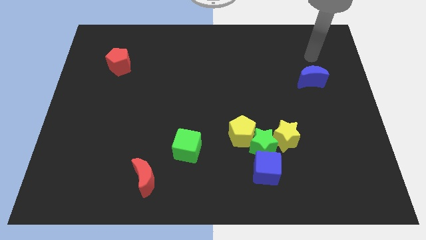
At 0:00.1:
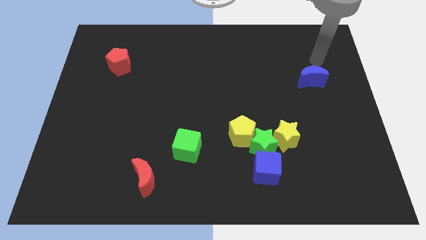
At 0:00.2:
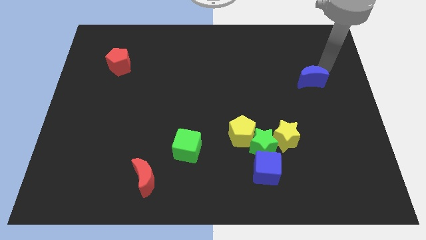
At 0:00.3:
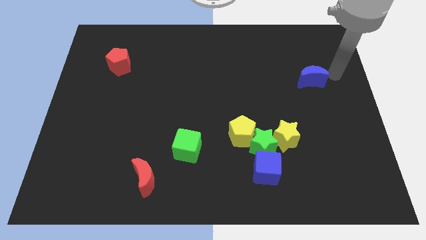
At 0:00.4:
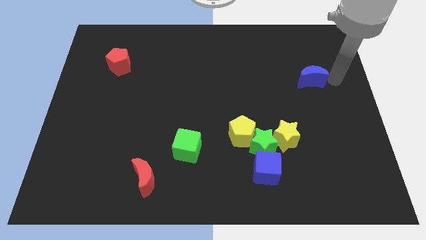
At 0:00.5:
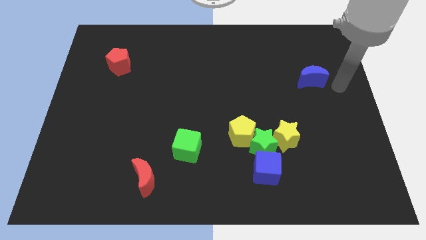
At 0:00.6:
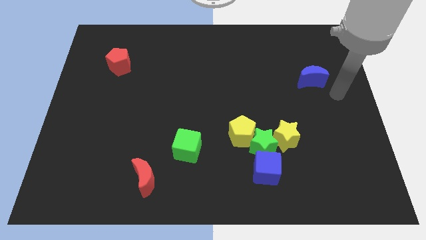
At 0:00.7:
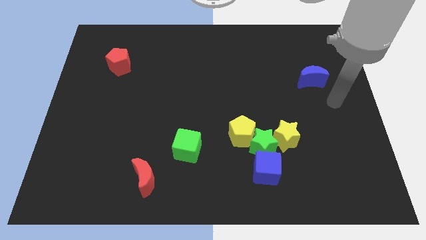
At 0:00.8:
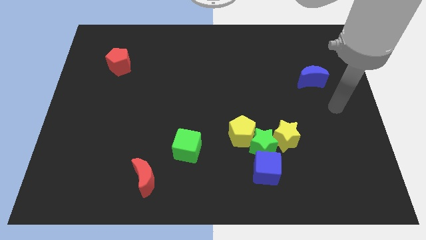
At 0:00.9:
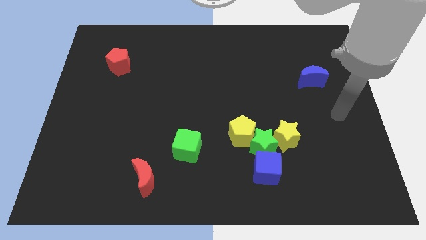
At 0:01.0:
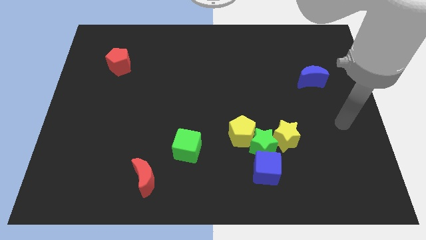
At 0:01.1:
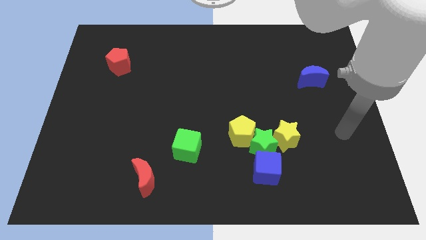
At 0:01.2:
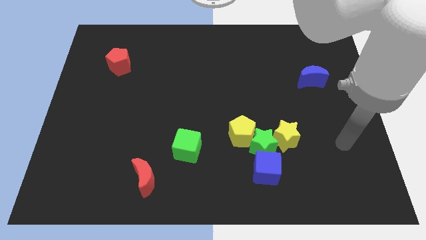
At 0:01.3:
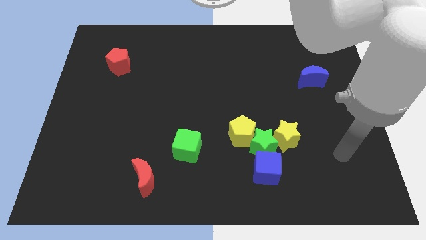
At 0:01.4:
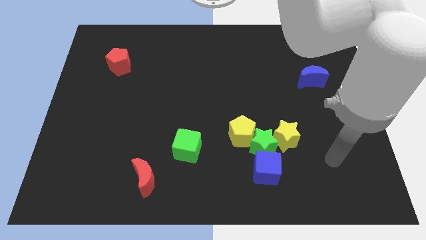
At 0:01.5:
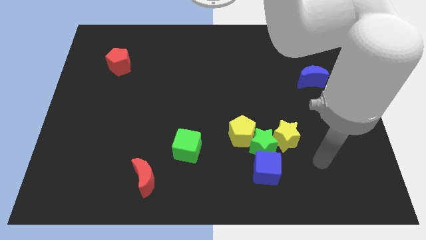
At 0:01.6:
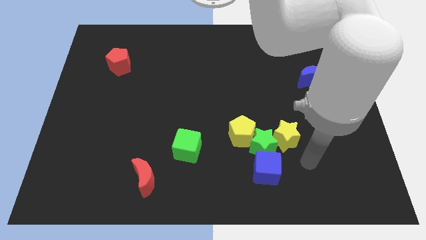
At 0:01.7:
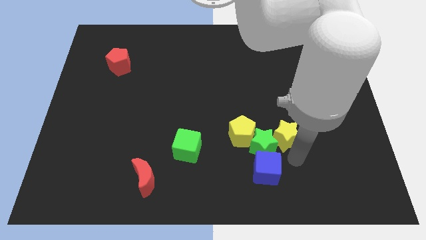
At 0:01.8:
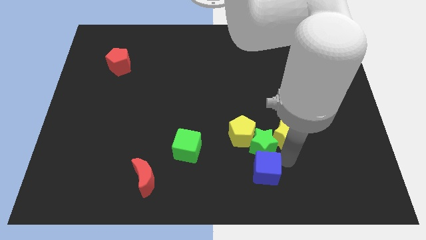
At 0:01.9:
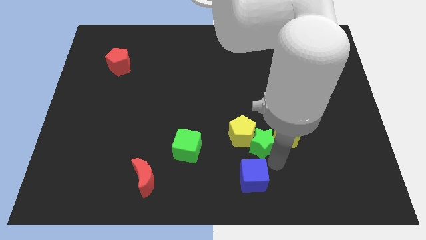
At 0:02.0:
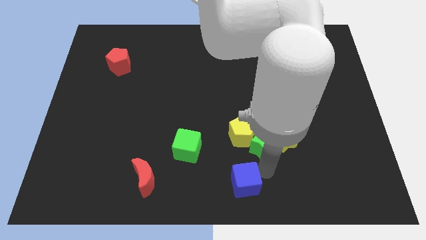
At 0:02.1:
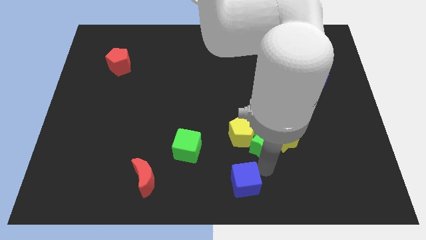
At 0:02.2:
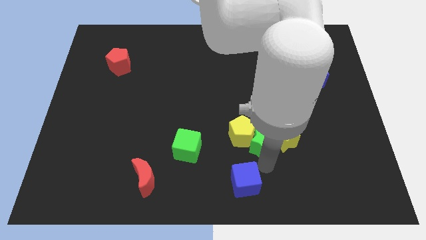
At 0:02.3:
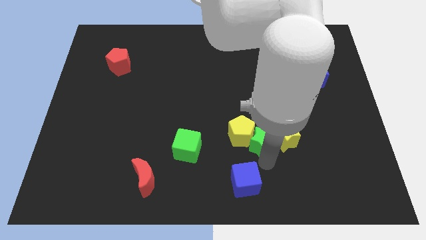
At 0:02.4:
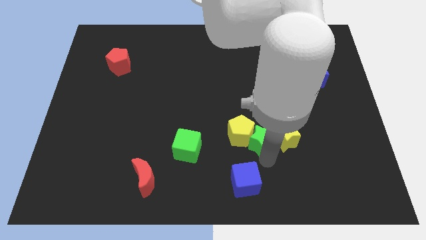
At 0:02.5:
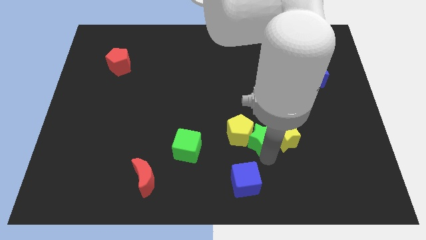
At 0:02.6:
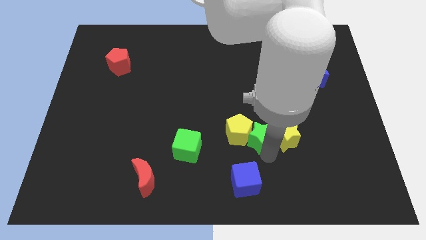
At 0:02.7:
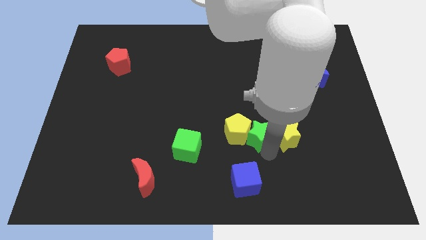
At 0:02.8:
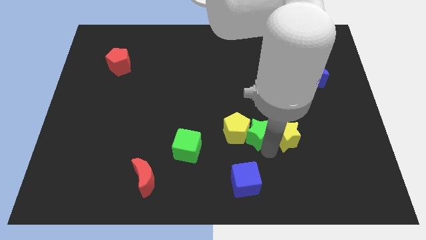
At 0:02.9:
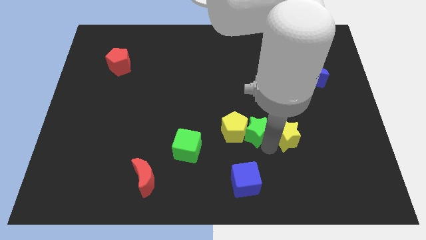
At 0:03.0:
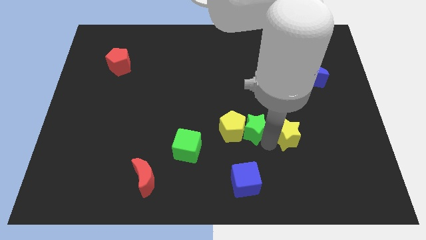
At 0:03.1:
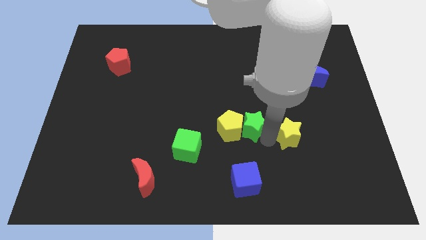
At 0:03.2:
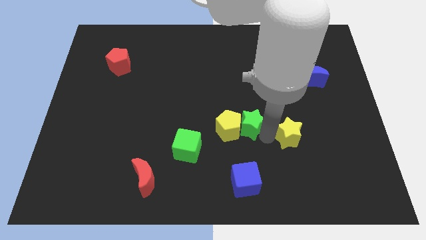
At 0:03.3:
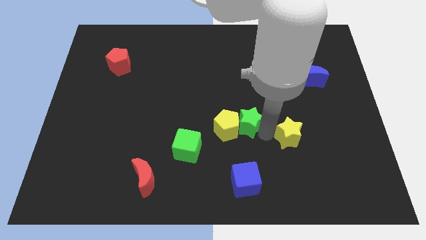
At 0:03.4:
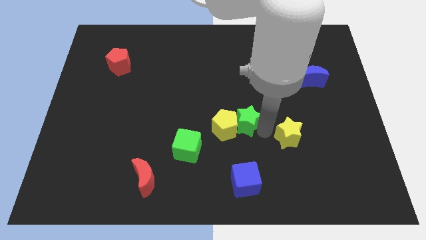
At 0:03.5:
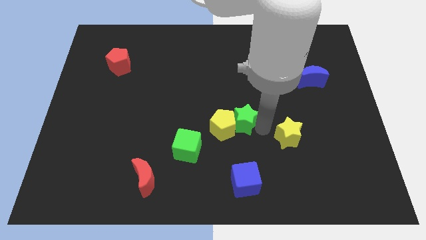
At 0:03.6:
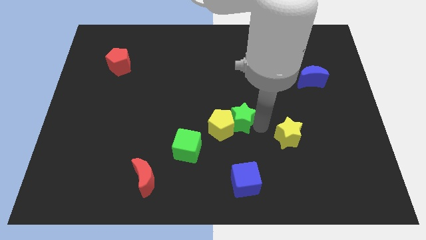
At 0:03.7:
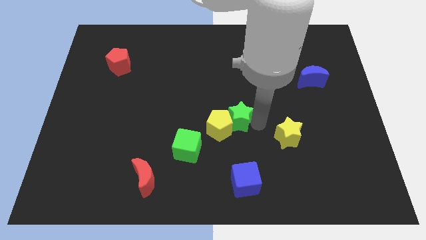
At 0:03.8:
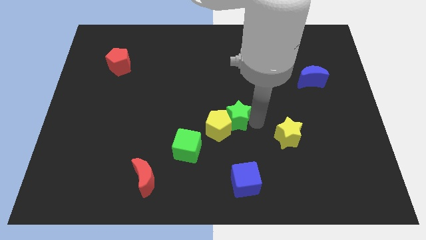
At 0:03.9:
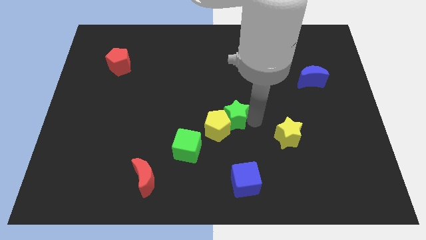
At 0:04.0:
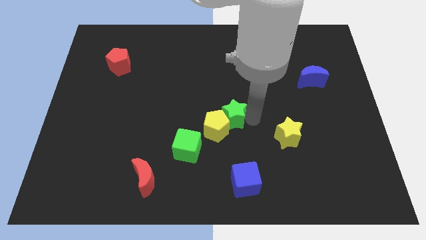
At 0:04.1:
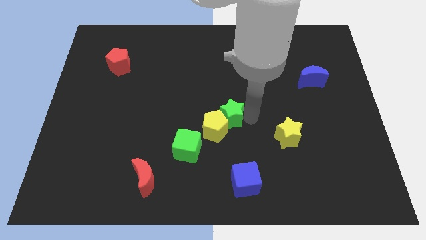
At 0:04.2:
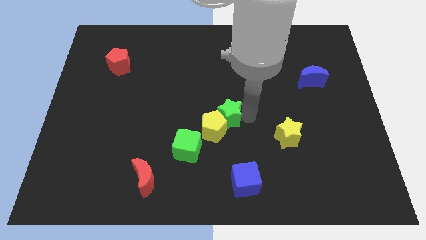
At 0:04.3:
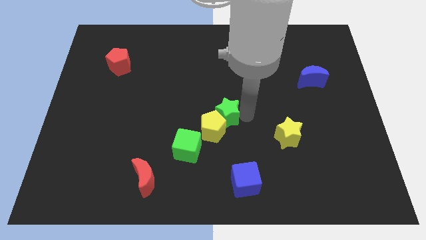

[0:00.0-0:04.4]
pull the green star apart from the yellow pentagon, yellow star, and blue cube

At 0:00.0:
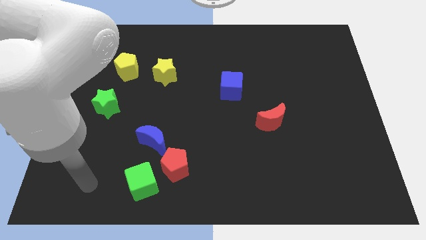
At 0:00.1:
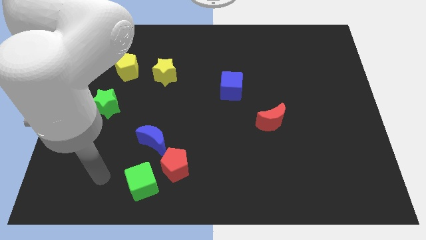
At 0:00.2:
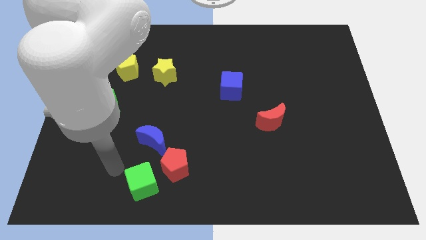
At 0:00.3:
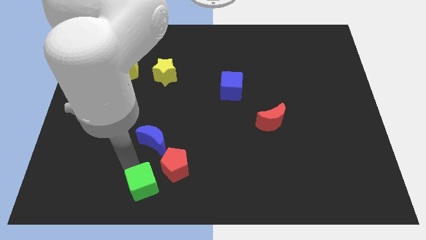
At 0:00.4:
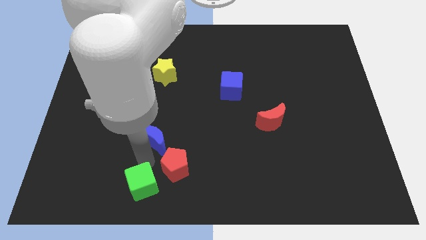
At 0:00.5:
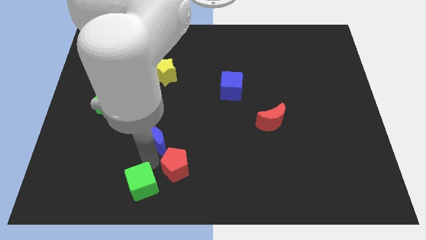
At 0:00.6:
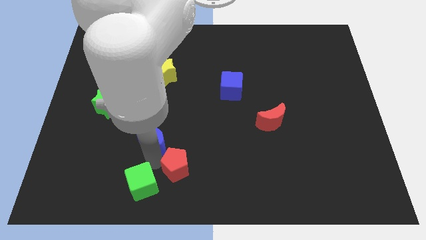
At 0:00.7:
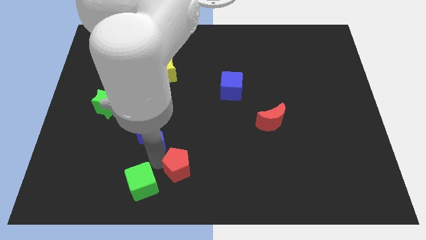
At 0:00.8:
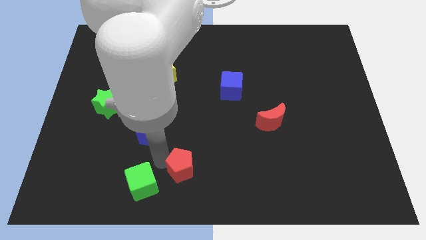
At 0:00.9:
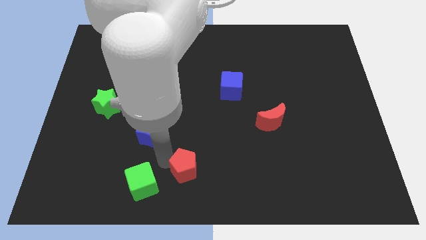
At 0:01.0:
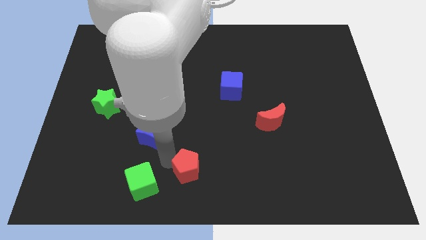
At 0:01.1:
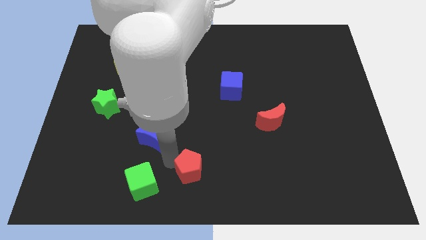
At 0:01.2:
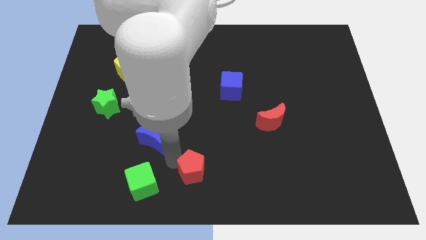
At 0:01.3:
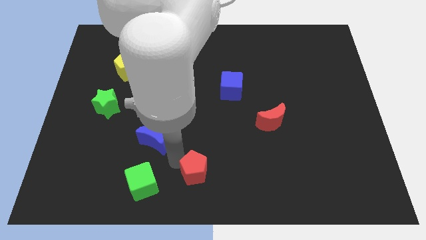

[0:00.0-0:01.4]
pull the red pentagon apart from the green cube and blue moon

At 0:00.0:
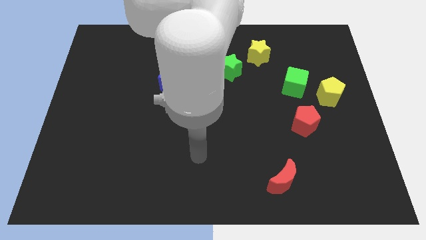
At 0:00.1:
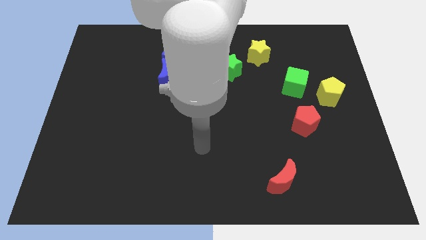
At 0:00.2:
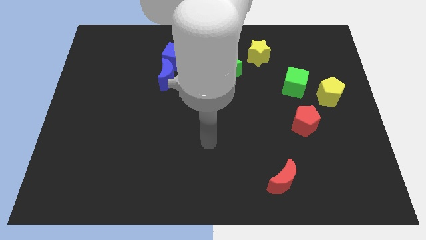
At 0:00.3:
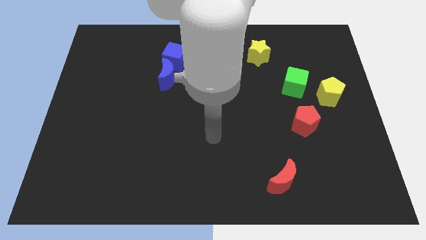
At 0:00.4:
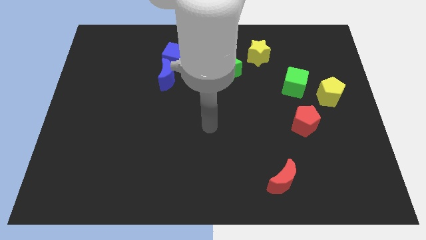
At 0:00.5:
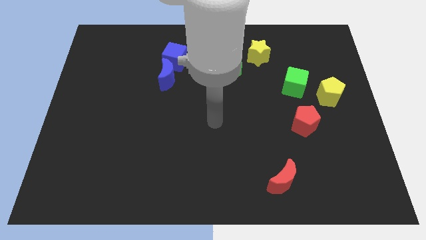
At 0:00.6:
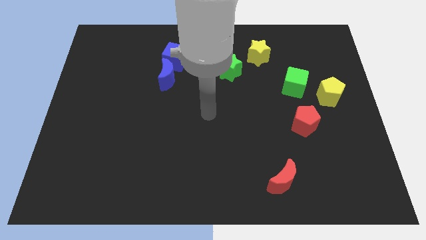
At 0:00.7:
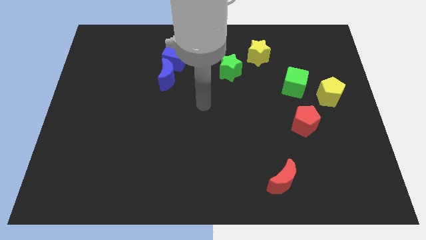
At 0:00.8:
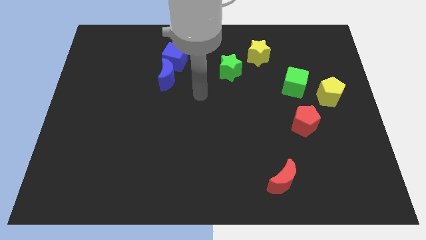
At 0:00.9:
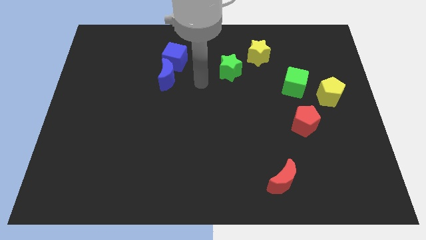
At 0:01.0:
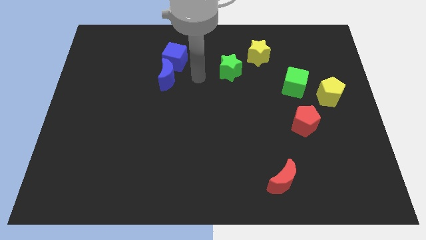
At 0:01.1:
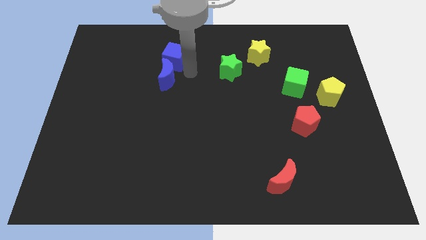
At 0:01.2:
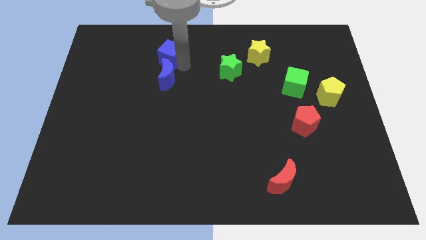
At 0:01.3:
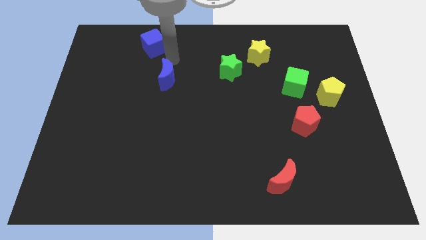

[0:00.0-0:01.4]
pull the blue moon apart from the blue cube

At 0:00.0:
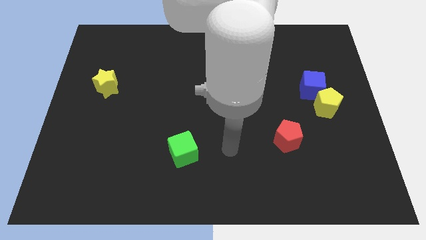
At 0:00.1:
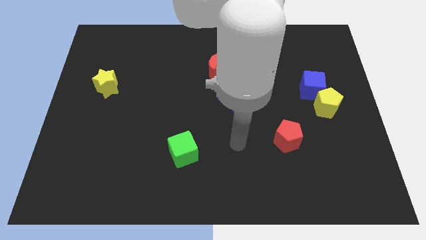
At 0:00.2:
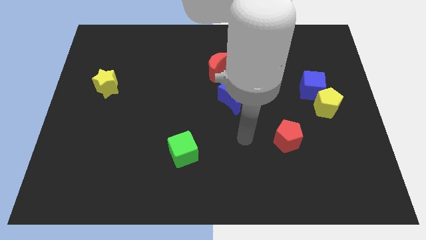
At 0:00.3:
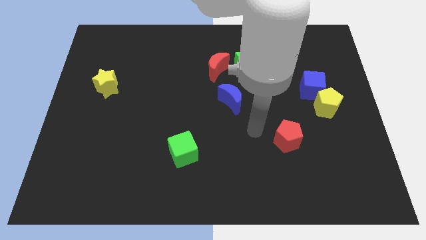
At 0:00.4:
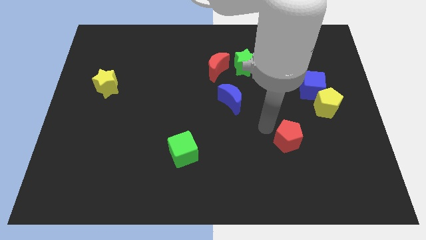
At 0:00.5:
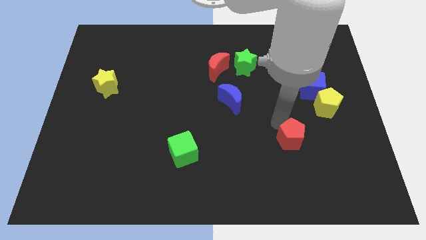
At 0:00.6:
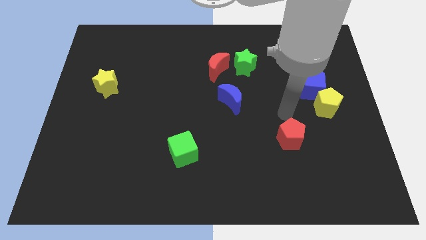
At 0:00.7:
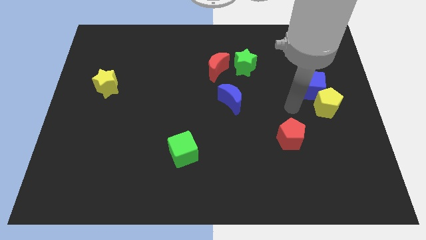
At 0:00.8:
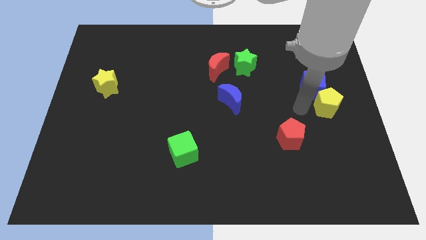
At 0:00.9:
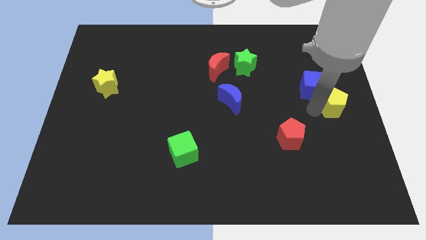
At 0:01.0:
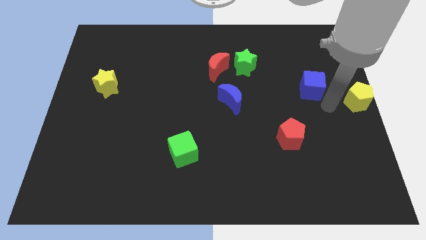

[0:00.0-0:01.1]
separate the blue cube from the yellow pentagon

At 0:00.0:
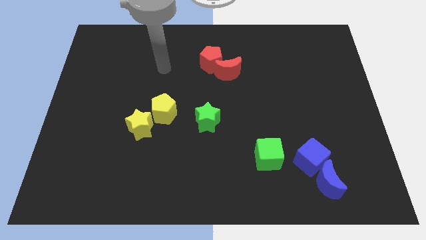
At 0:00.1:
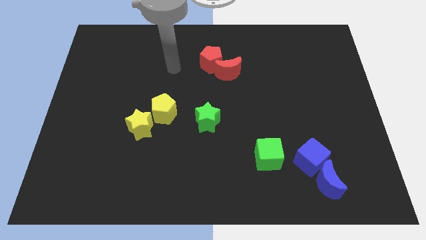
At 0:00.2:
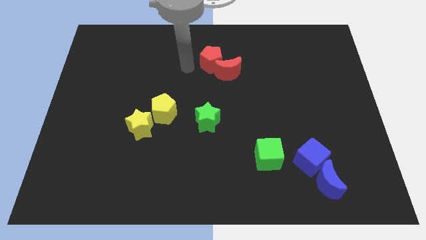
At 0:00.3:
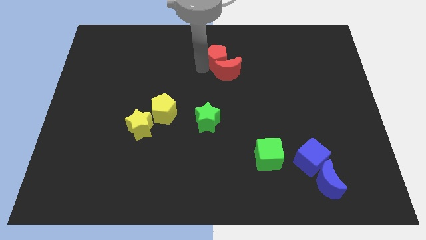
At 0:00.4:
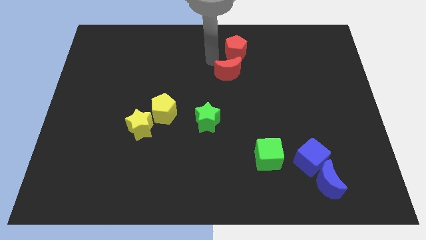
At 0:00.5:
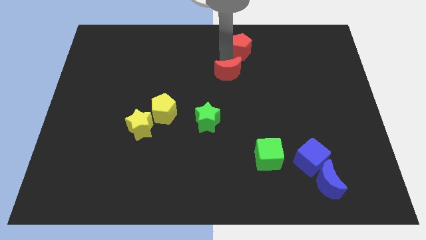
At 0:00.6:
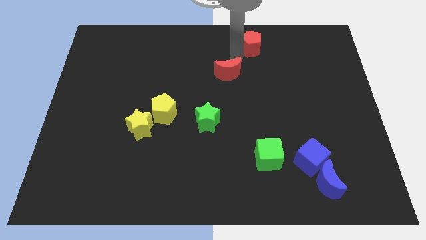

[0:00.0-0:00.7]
pull the red moon apart from the red pentagon

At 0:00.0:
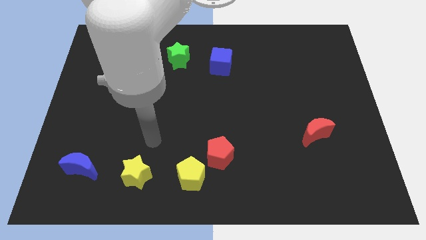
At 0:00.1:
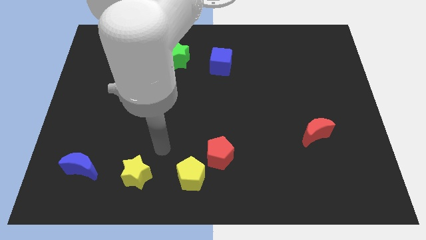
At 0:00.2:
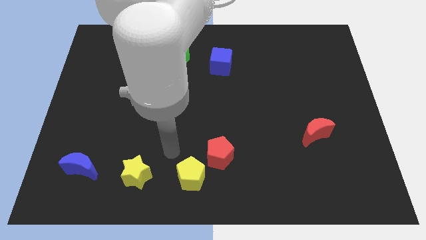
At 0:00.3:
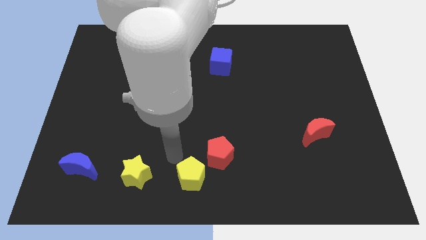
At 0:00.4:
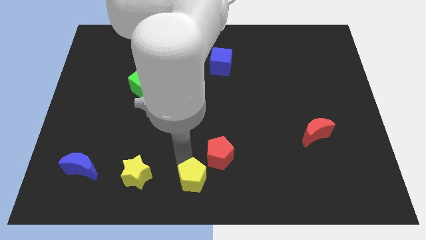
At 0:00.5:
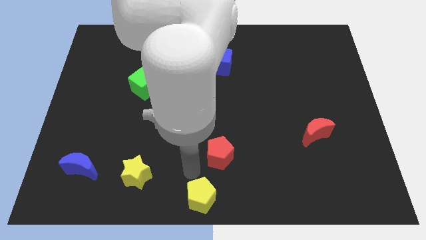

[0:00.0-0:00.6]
move the red pentagon away from the yellow pentagon
